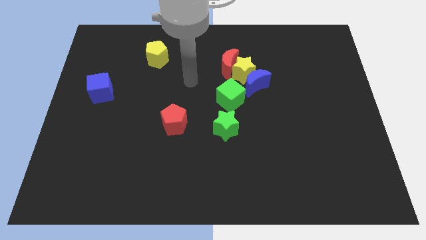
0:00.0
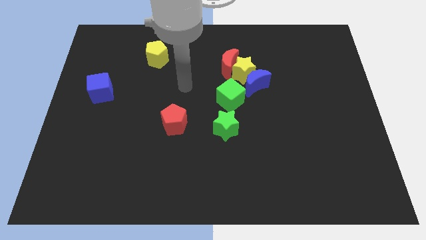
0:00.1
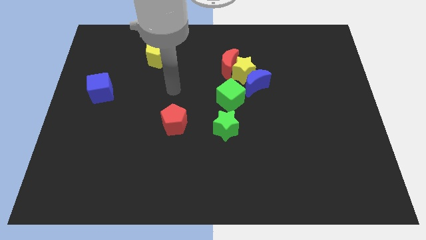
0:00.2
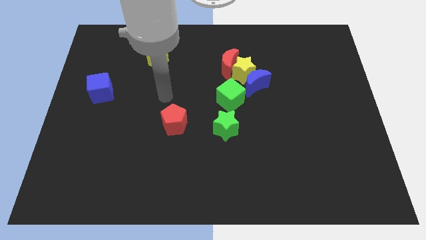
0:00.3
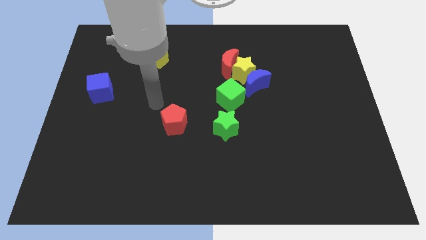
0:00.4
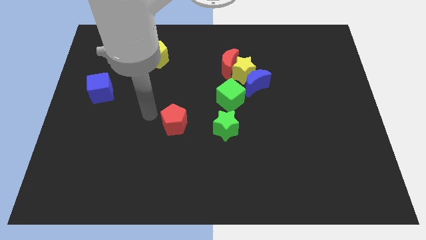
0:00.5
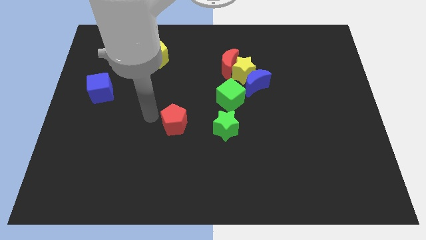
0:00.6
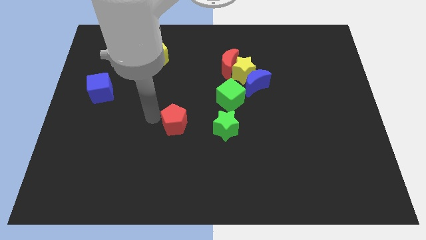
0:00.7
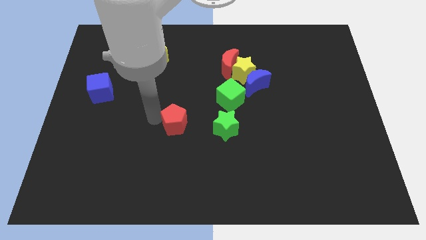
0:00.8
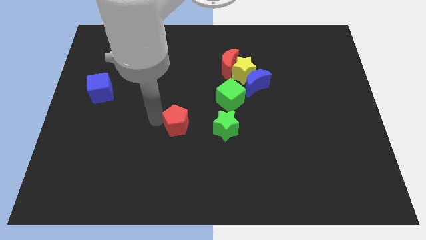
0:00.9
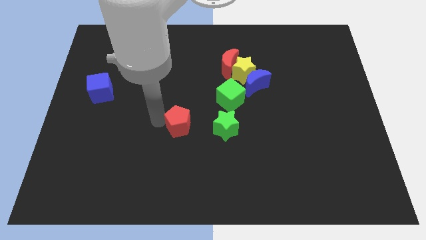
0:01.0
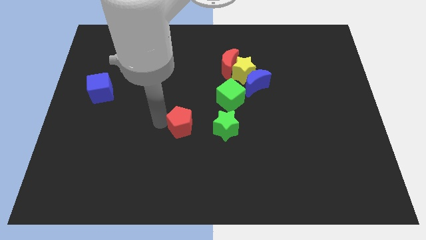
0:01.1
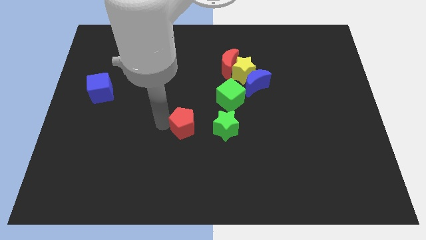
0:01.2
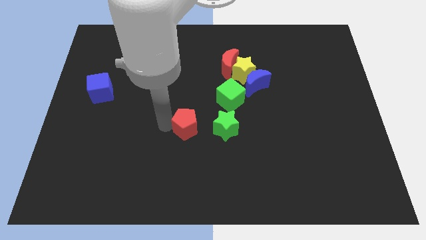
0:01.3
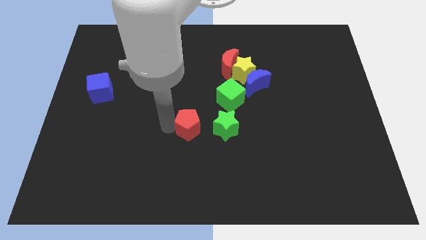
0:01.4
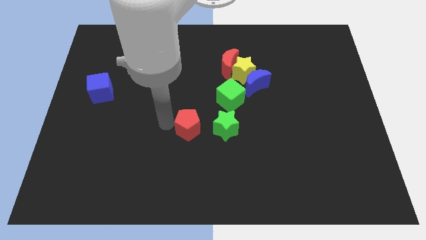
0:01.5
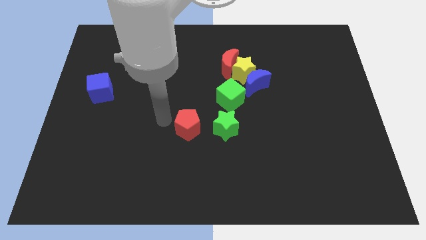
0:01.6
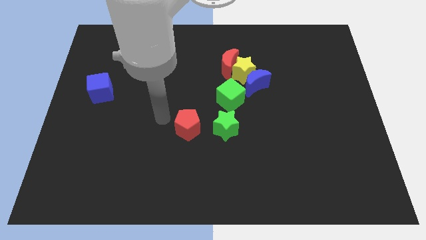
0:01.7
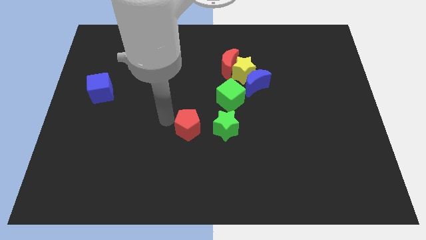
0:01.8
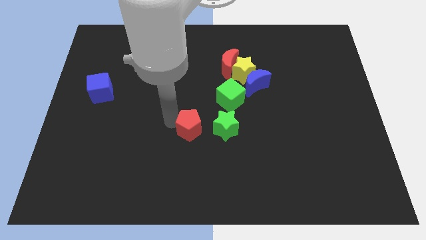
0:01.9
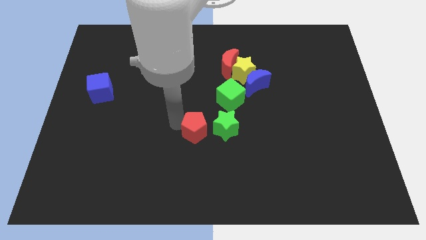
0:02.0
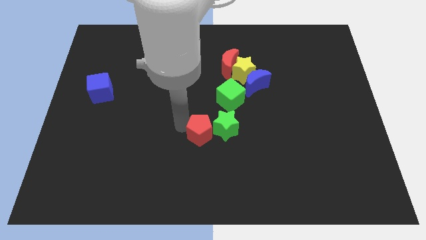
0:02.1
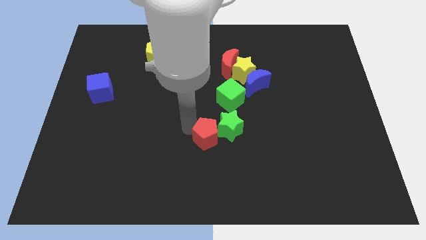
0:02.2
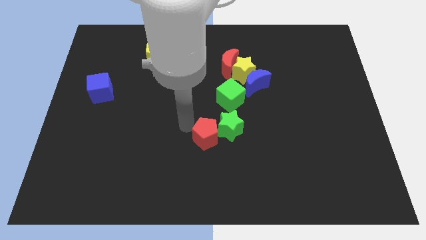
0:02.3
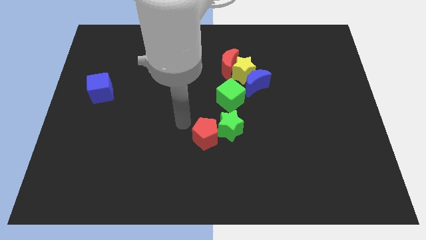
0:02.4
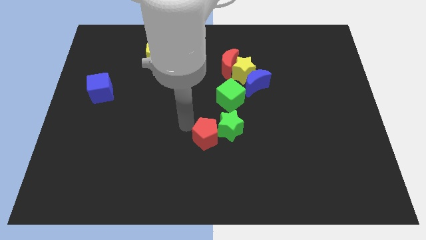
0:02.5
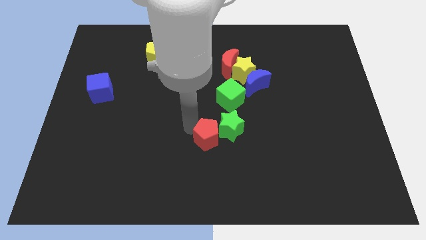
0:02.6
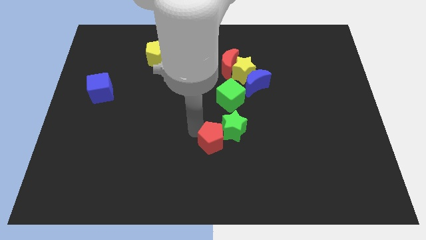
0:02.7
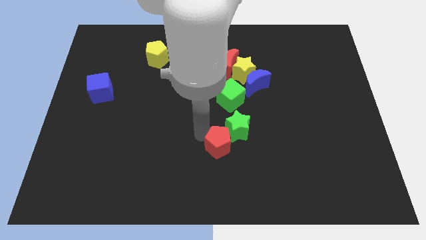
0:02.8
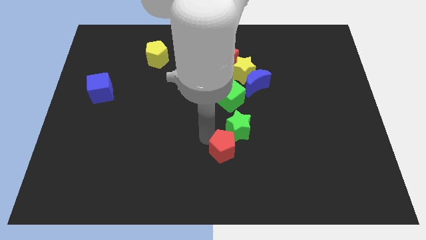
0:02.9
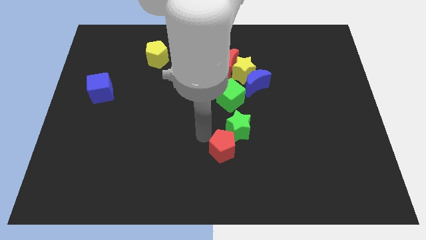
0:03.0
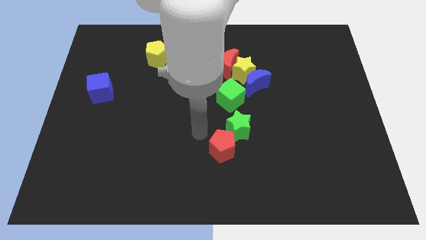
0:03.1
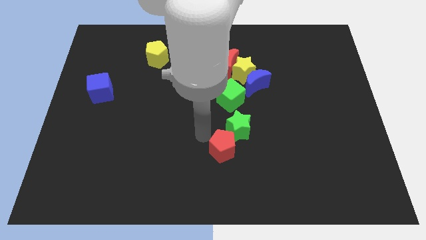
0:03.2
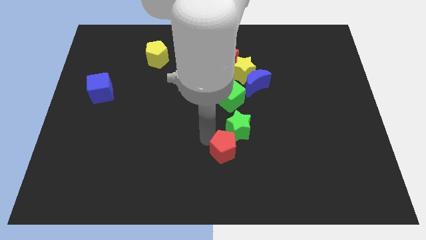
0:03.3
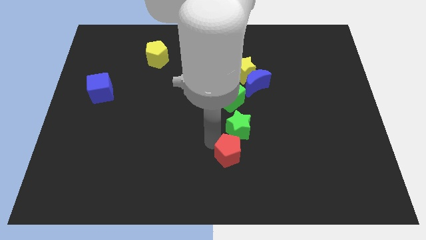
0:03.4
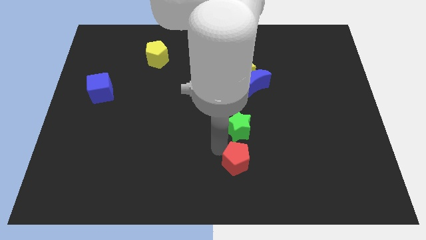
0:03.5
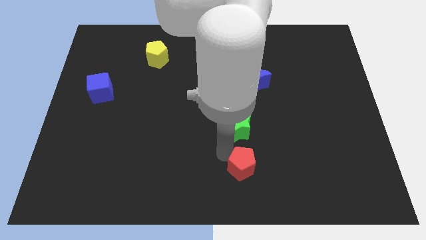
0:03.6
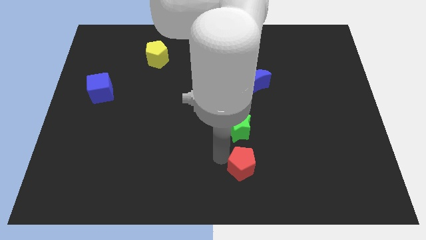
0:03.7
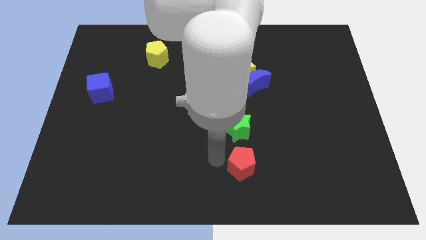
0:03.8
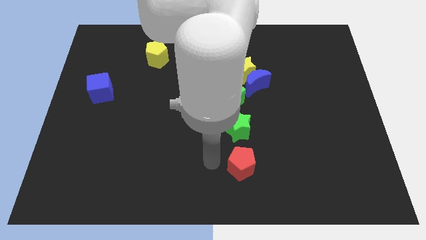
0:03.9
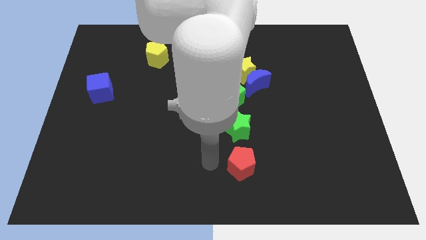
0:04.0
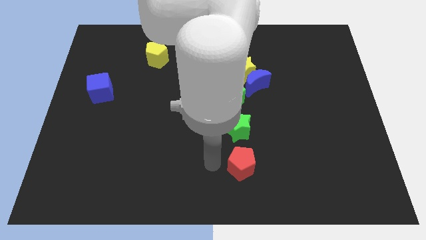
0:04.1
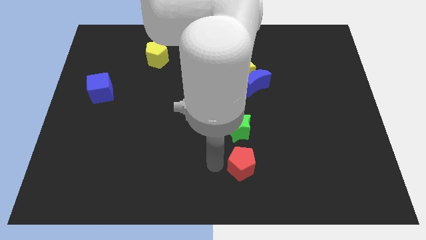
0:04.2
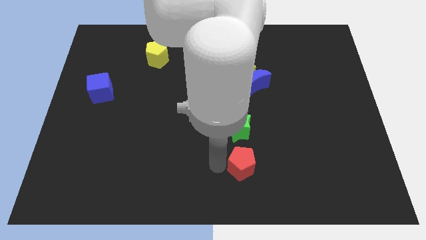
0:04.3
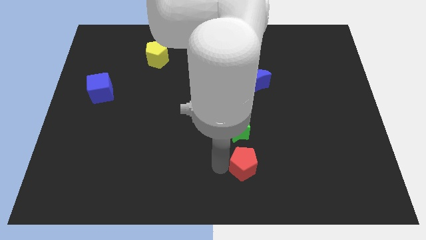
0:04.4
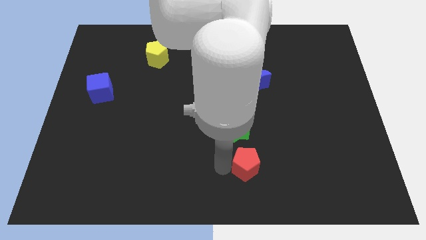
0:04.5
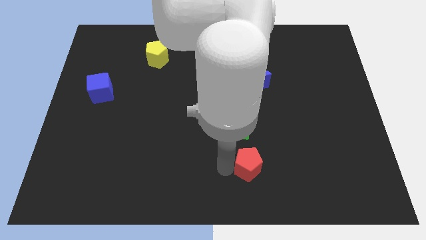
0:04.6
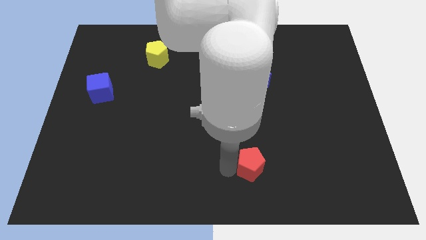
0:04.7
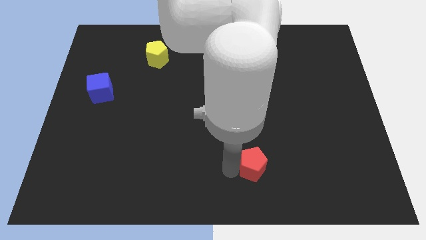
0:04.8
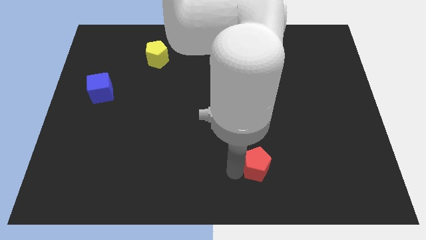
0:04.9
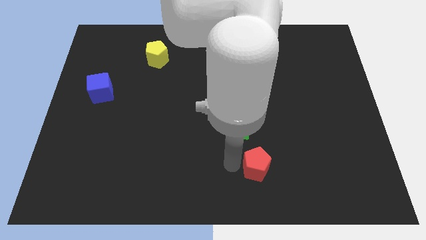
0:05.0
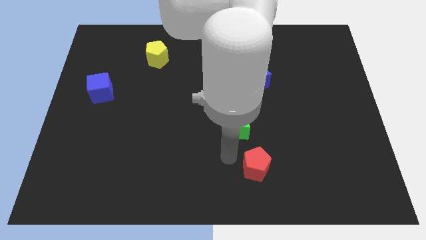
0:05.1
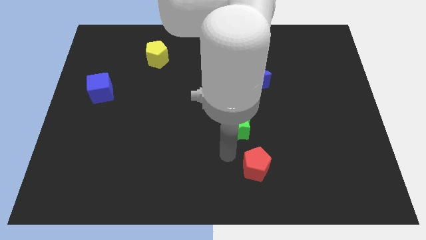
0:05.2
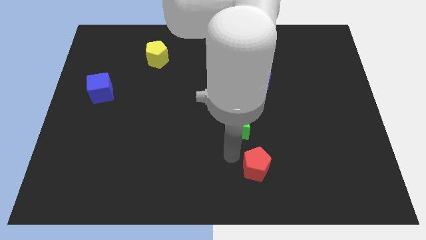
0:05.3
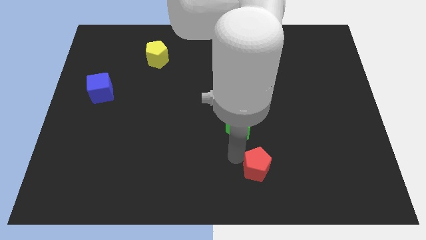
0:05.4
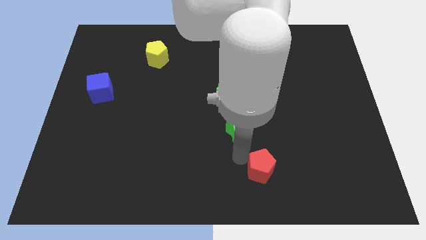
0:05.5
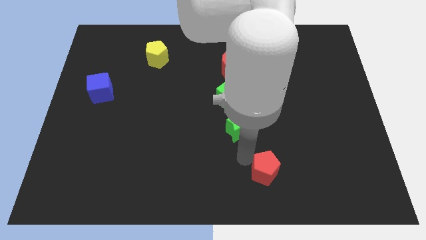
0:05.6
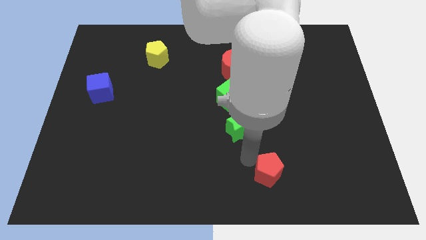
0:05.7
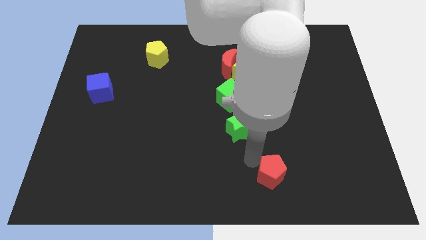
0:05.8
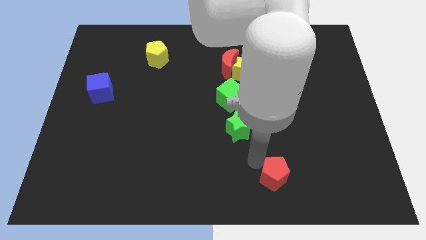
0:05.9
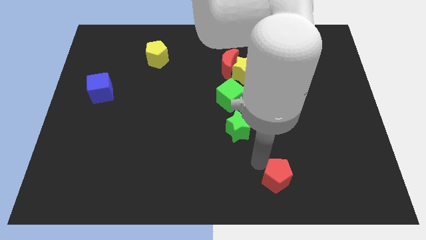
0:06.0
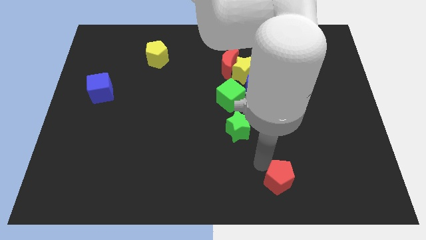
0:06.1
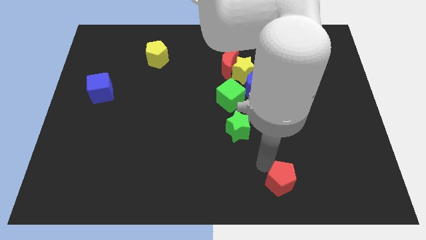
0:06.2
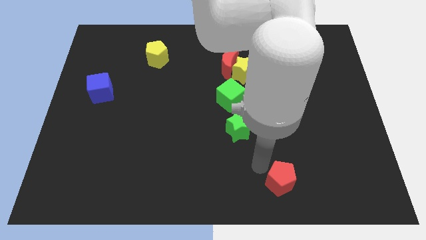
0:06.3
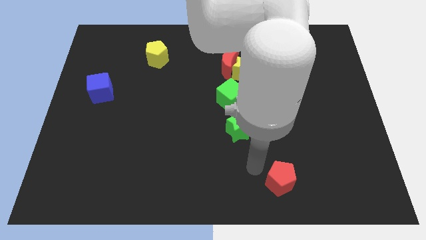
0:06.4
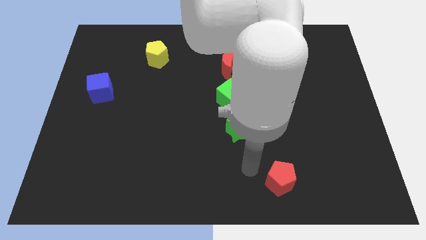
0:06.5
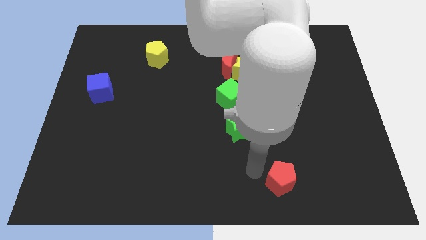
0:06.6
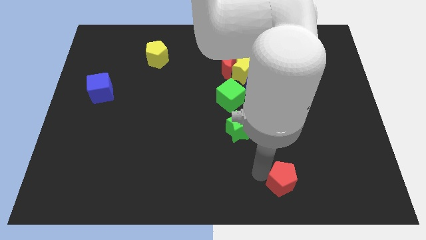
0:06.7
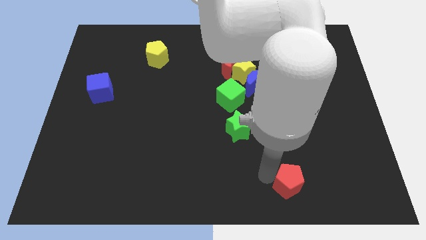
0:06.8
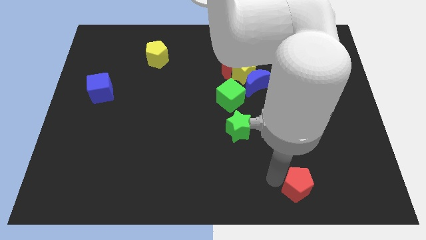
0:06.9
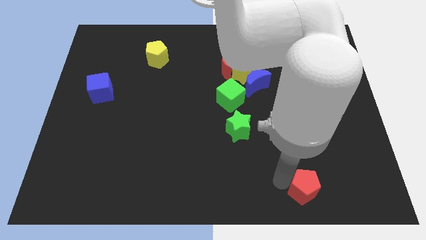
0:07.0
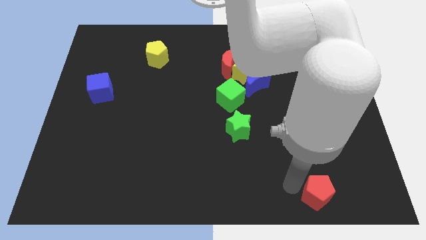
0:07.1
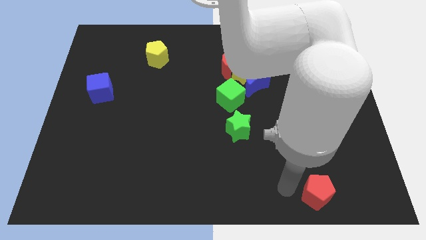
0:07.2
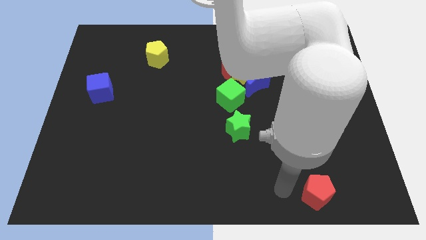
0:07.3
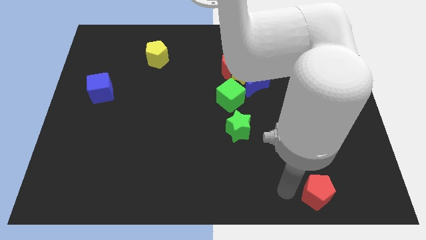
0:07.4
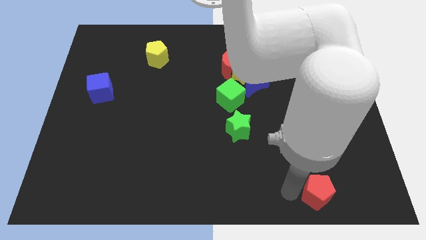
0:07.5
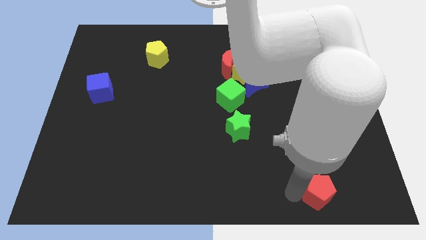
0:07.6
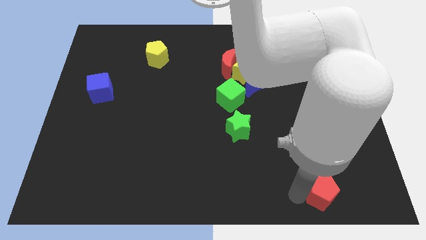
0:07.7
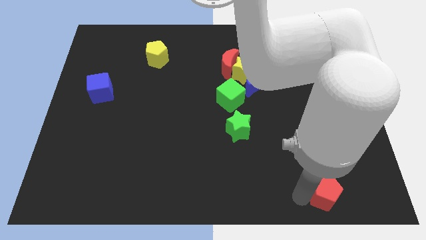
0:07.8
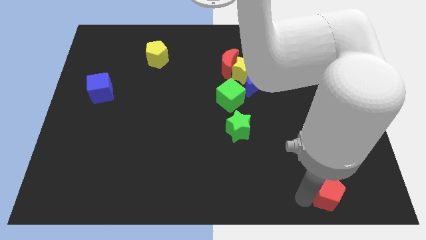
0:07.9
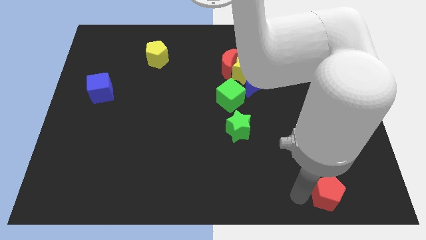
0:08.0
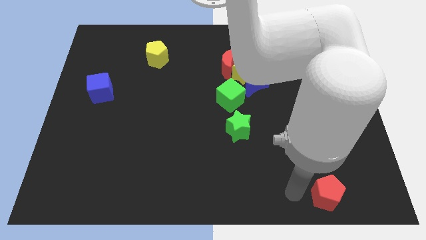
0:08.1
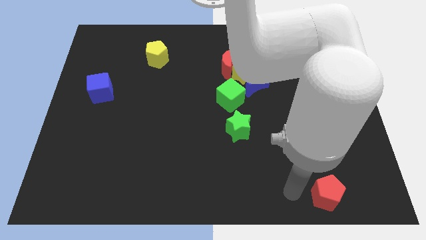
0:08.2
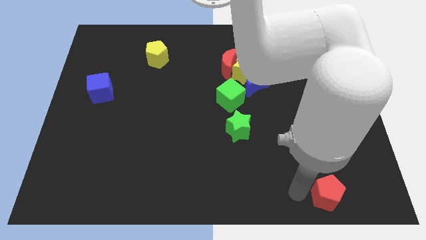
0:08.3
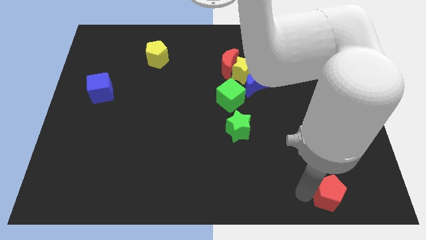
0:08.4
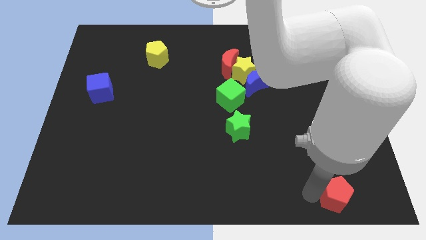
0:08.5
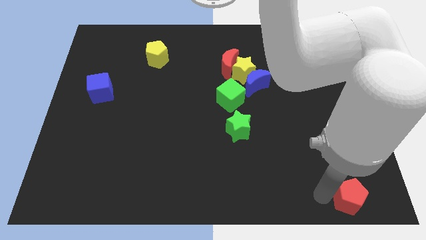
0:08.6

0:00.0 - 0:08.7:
put the red pentagon to the bottom right corner
